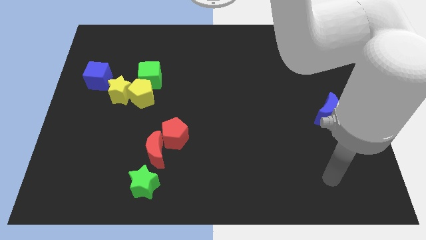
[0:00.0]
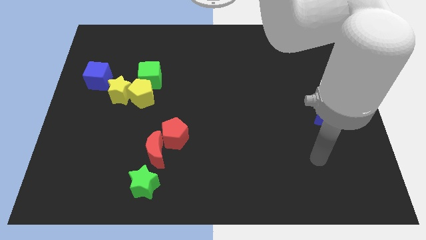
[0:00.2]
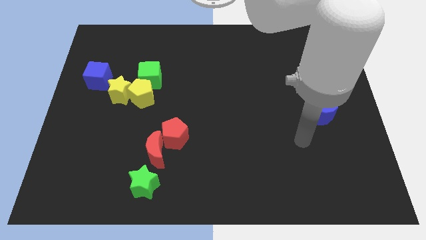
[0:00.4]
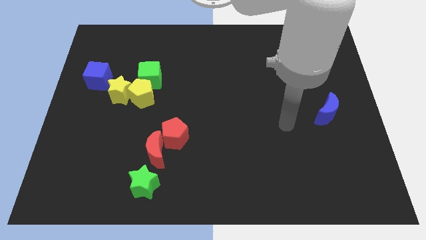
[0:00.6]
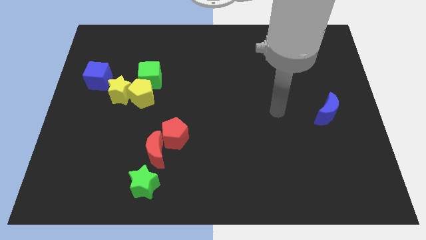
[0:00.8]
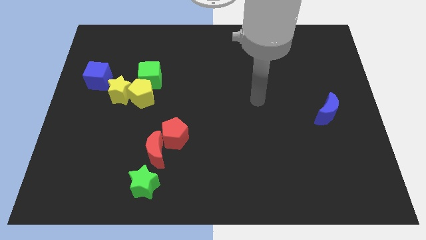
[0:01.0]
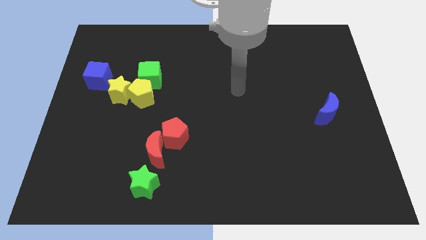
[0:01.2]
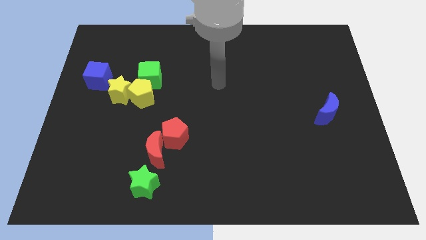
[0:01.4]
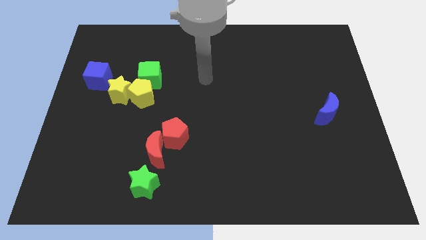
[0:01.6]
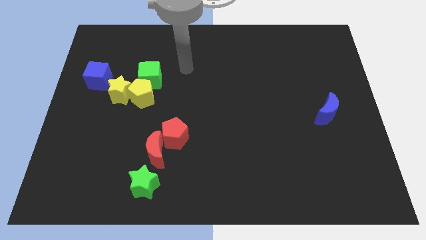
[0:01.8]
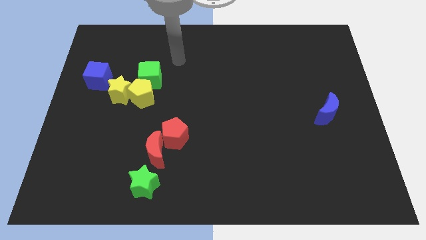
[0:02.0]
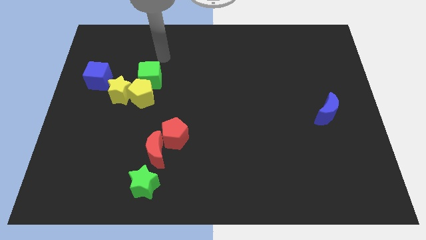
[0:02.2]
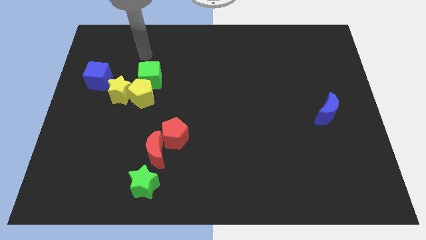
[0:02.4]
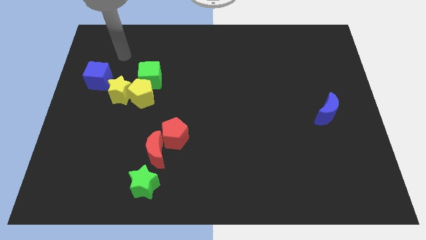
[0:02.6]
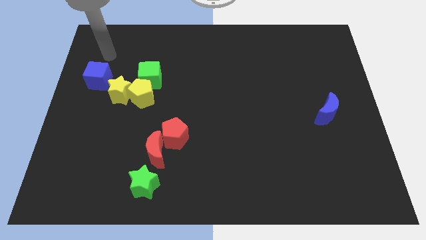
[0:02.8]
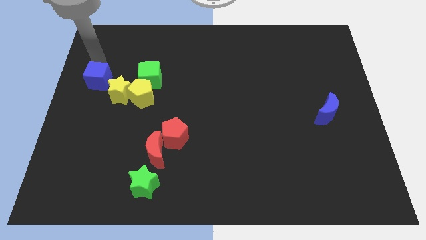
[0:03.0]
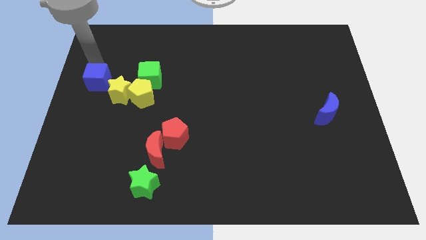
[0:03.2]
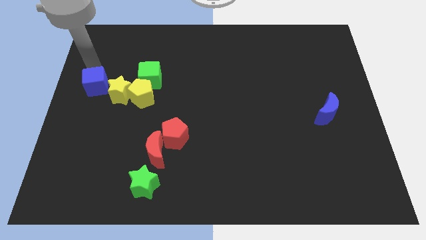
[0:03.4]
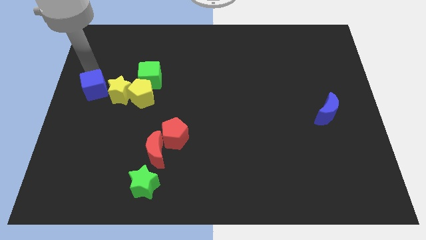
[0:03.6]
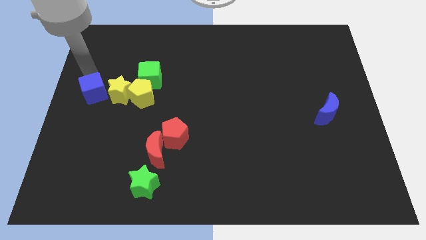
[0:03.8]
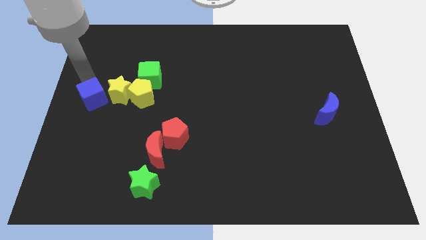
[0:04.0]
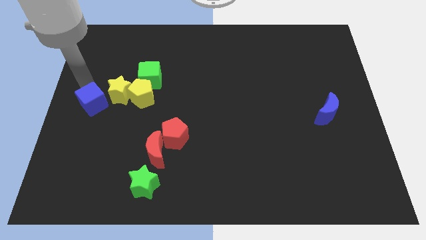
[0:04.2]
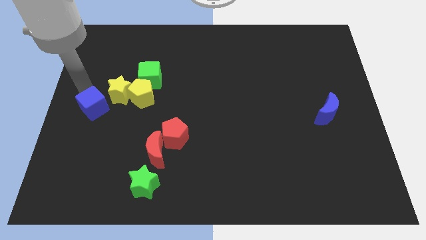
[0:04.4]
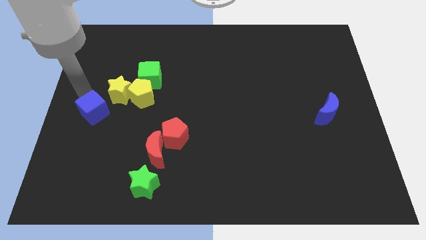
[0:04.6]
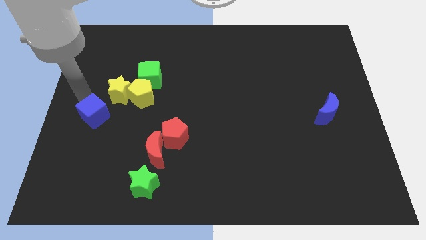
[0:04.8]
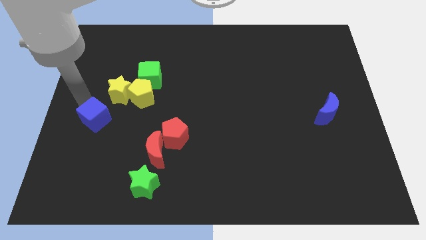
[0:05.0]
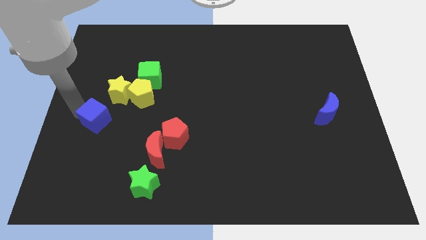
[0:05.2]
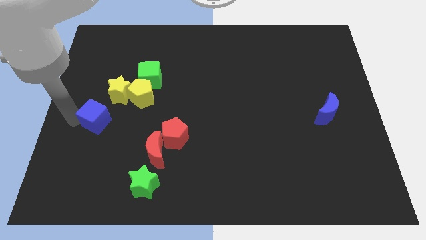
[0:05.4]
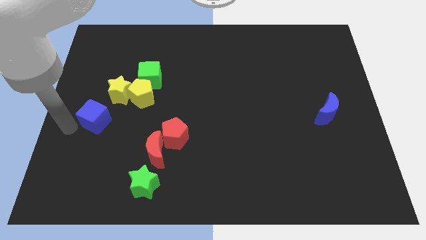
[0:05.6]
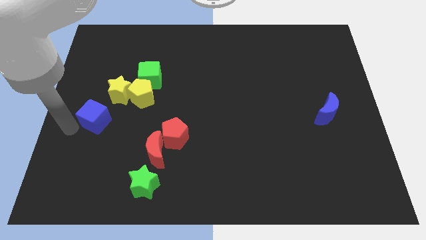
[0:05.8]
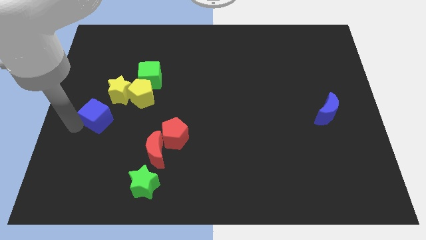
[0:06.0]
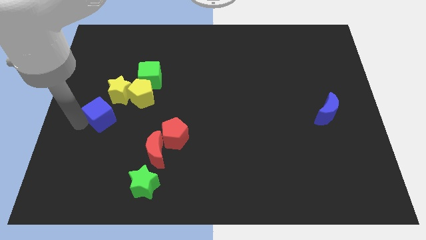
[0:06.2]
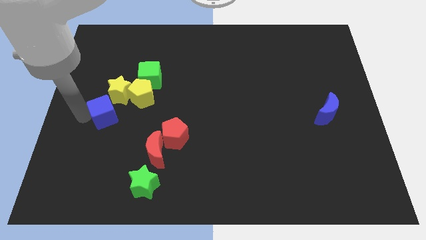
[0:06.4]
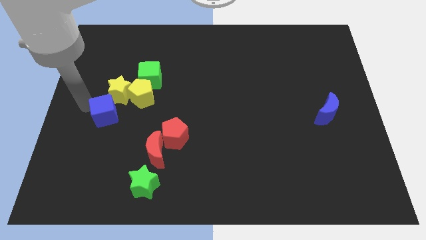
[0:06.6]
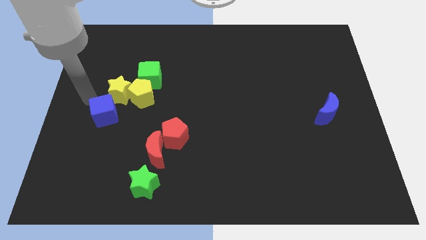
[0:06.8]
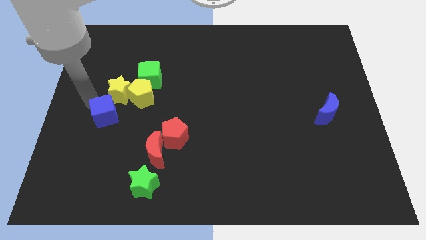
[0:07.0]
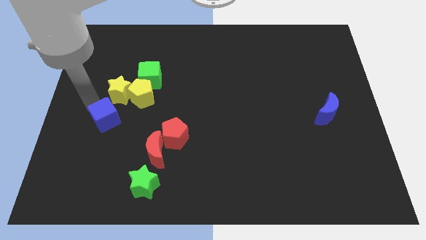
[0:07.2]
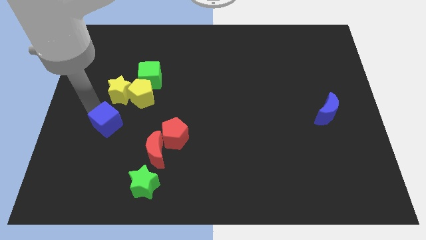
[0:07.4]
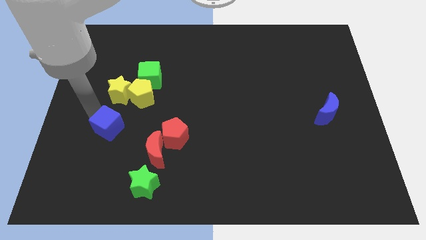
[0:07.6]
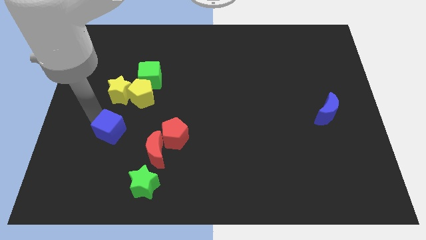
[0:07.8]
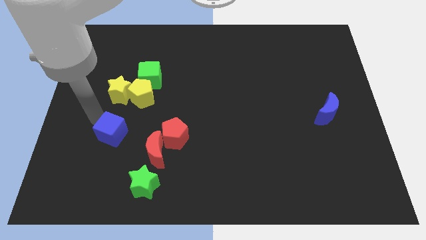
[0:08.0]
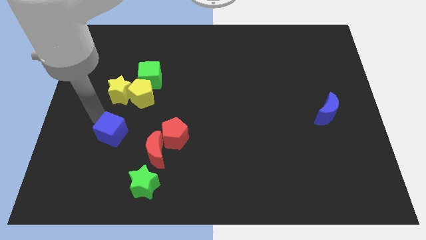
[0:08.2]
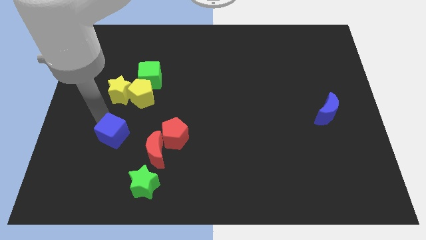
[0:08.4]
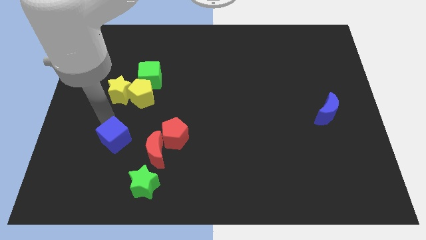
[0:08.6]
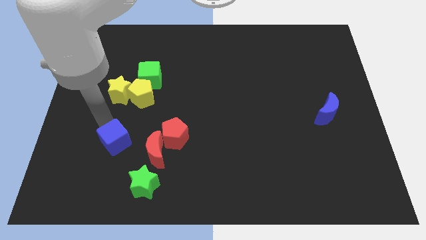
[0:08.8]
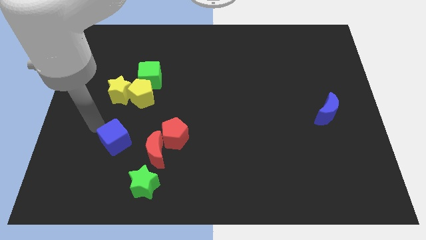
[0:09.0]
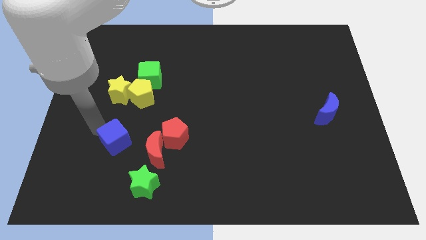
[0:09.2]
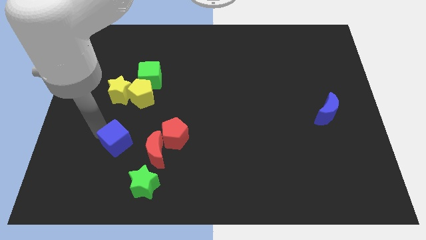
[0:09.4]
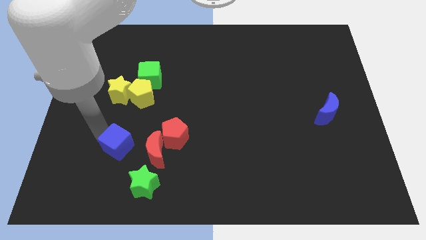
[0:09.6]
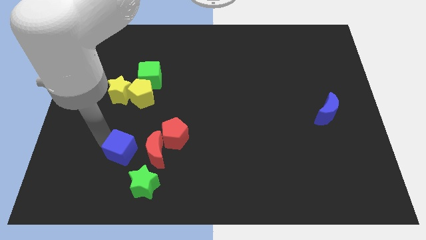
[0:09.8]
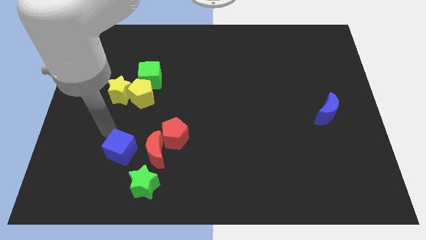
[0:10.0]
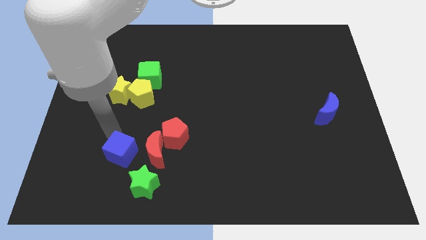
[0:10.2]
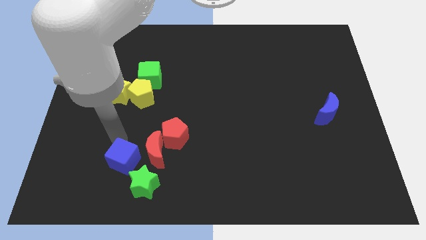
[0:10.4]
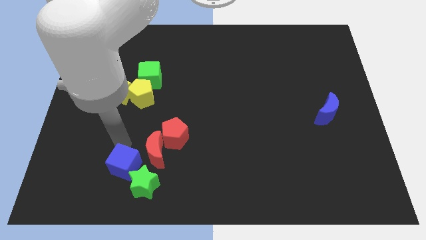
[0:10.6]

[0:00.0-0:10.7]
slide the blue cube to the green star

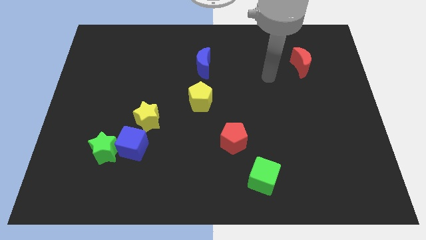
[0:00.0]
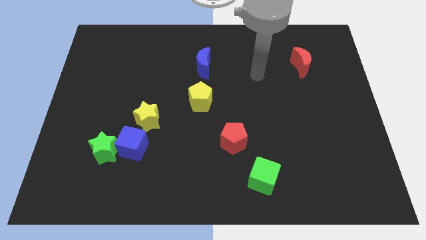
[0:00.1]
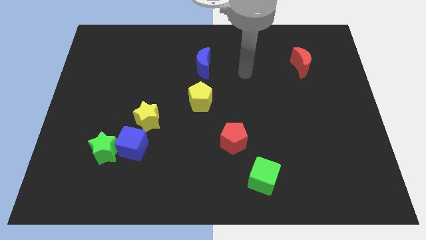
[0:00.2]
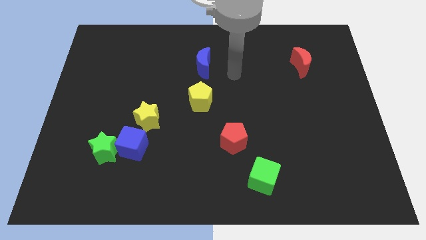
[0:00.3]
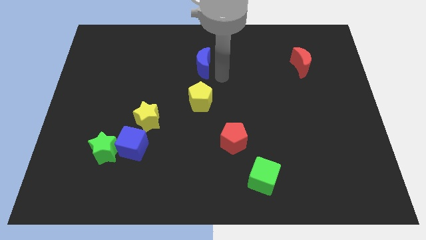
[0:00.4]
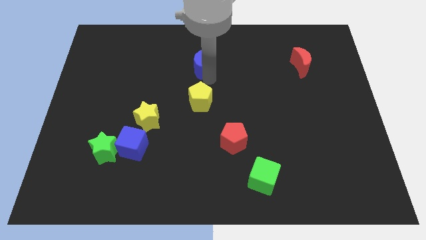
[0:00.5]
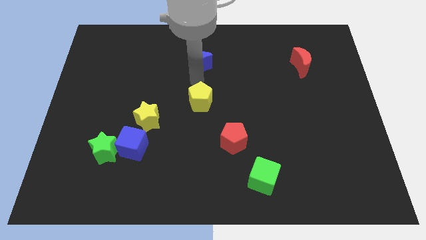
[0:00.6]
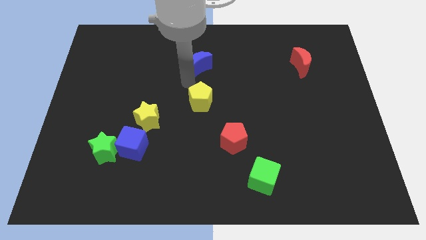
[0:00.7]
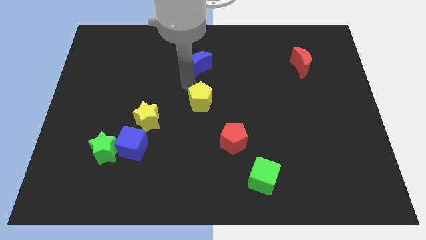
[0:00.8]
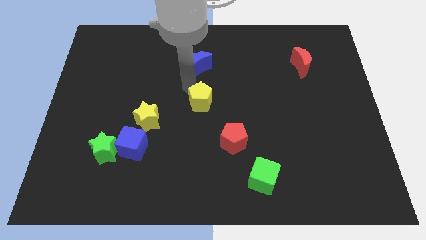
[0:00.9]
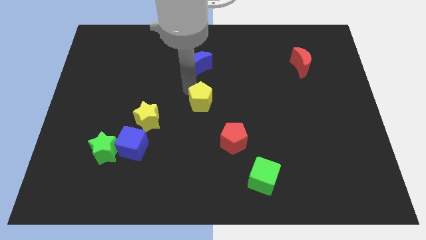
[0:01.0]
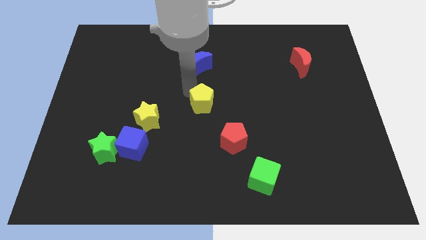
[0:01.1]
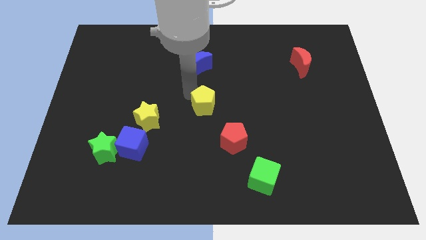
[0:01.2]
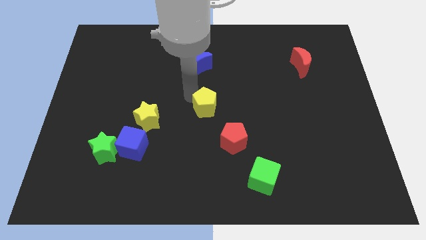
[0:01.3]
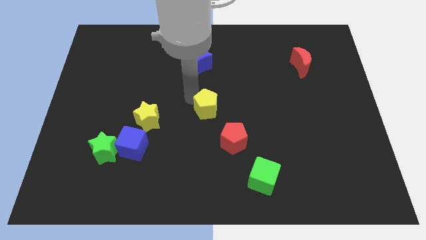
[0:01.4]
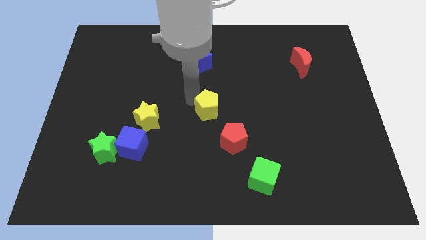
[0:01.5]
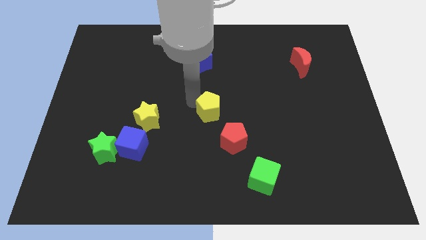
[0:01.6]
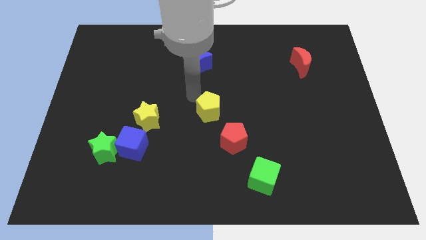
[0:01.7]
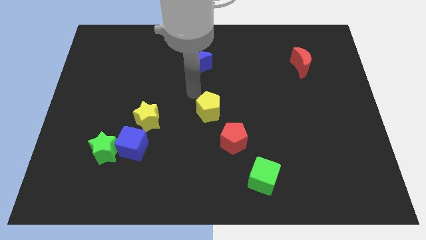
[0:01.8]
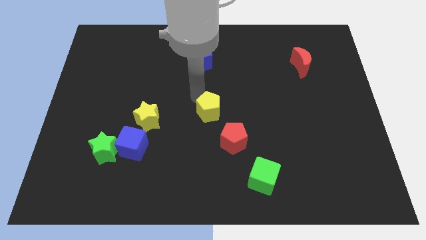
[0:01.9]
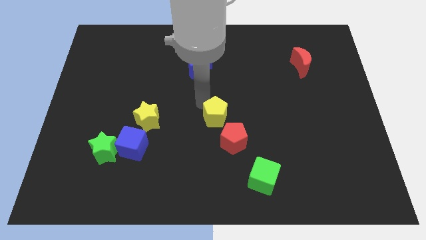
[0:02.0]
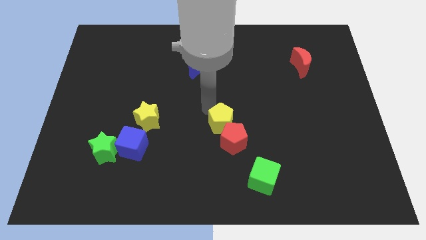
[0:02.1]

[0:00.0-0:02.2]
slide the yellow pentagon towards the red pentagon

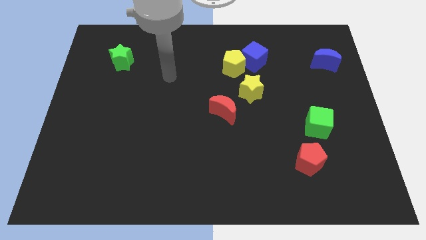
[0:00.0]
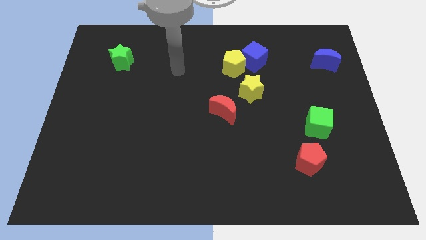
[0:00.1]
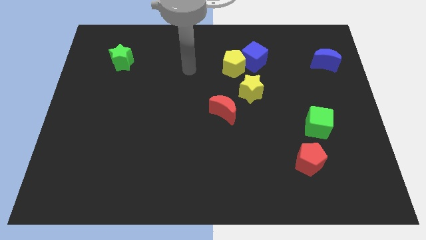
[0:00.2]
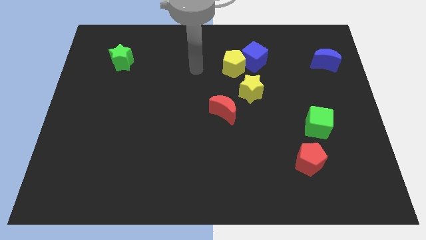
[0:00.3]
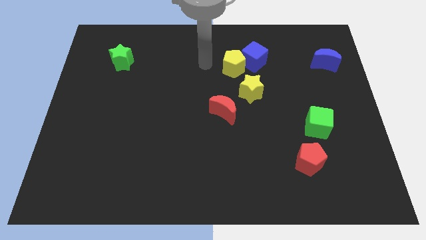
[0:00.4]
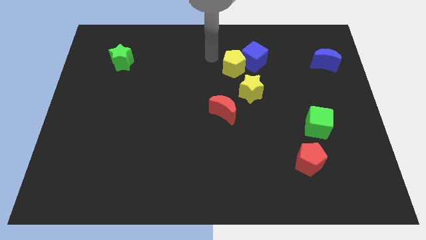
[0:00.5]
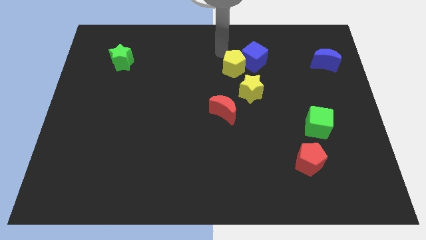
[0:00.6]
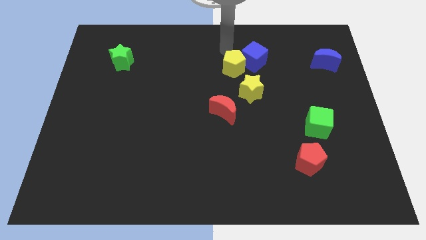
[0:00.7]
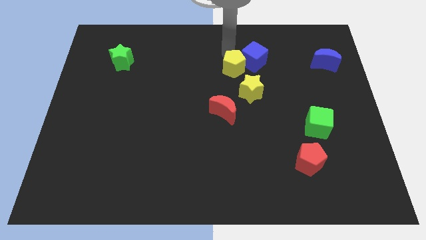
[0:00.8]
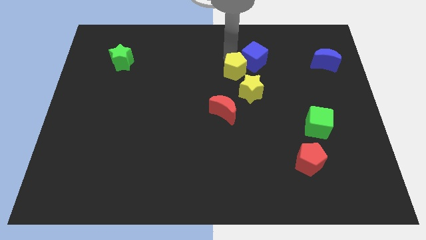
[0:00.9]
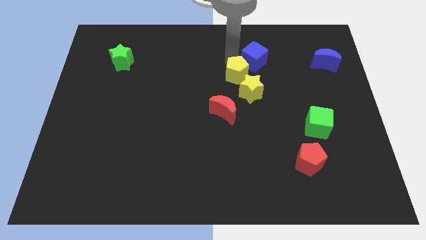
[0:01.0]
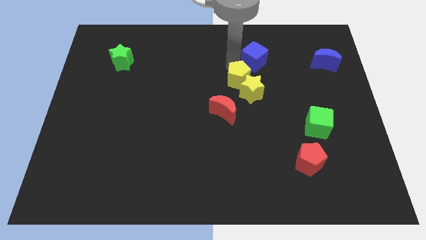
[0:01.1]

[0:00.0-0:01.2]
move the yellow pentagon next to the yellow star
